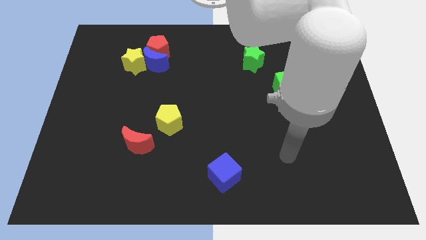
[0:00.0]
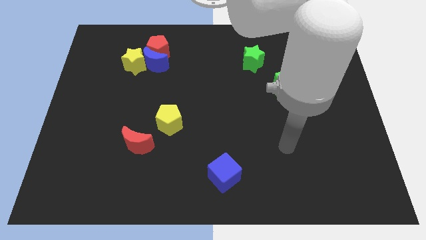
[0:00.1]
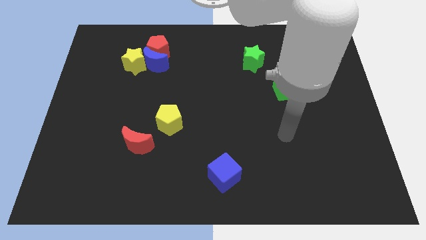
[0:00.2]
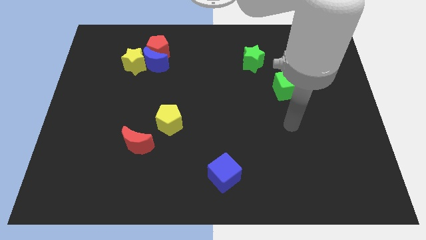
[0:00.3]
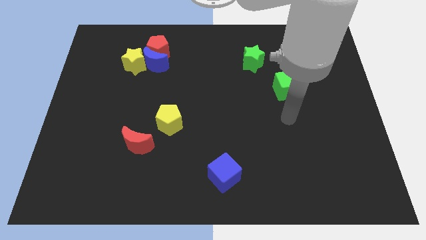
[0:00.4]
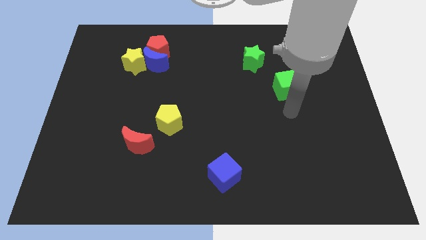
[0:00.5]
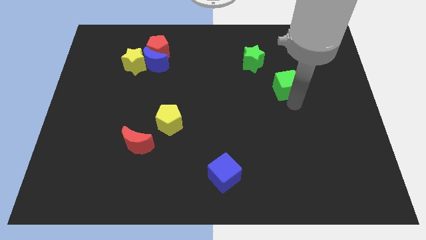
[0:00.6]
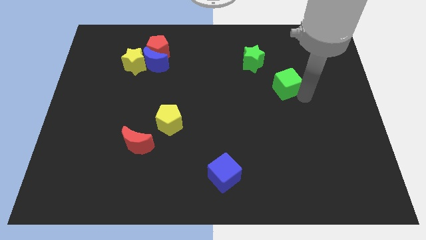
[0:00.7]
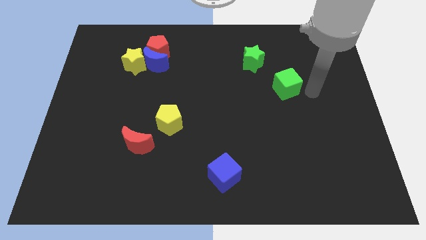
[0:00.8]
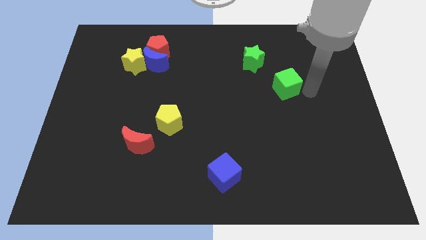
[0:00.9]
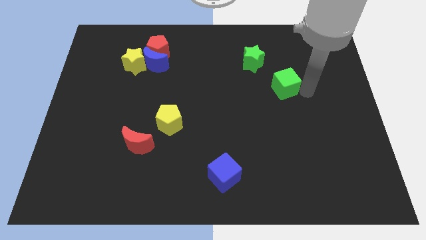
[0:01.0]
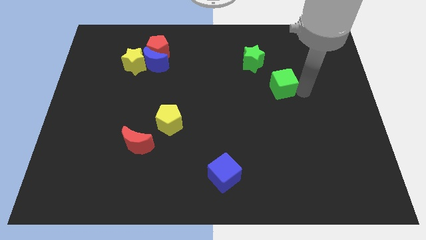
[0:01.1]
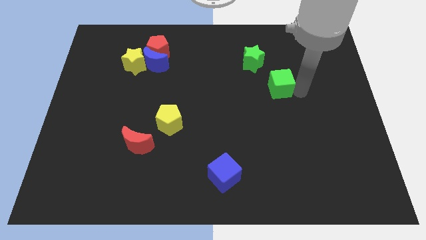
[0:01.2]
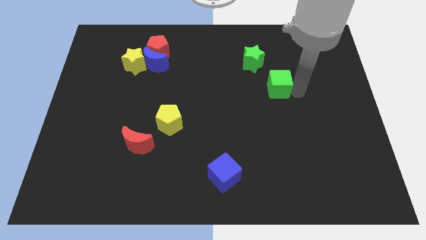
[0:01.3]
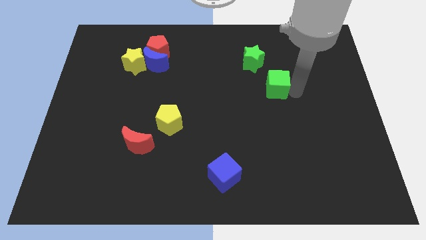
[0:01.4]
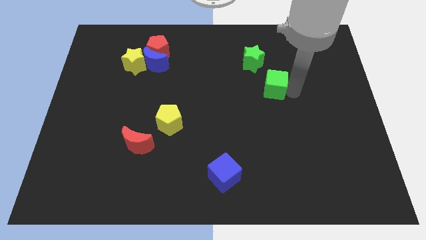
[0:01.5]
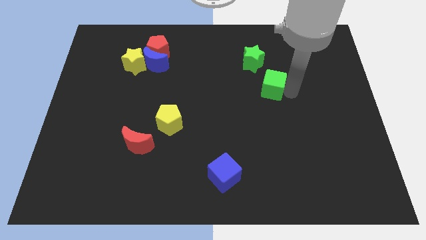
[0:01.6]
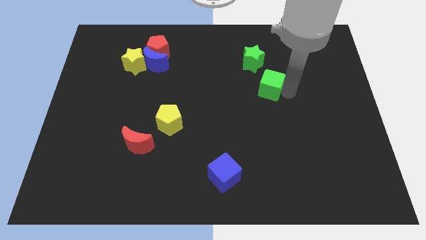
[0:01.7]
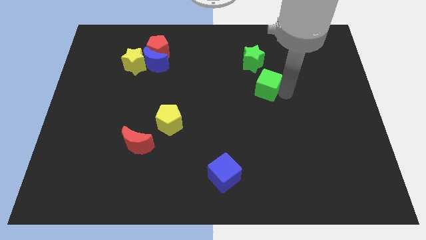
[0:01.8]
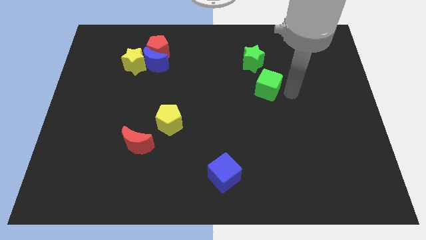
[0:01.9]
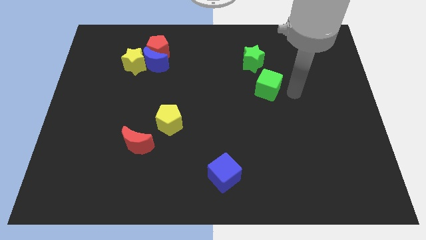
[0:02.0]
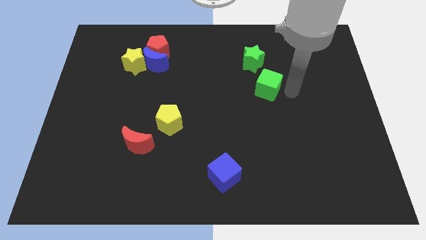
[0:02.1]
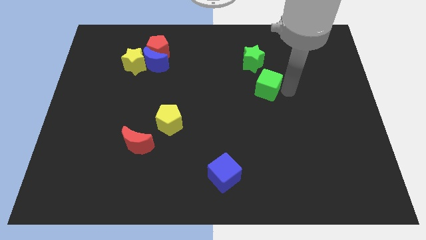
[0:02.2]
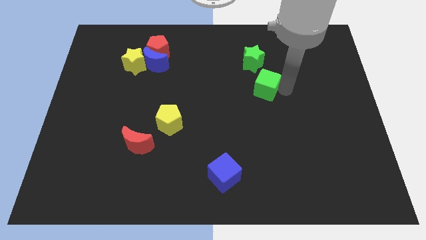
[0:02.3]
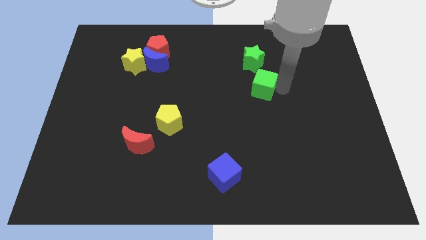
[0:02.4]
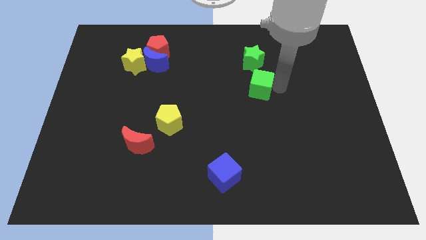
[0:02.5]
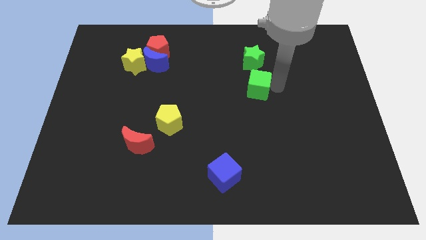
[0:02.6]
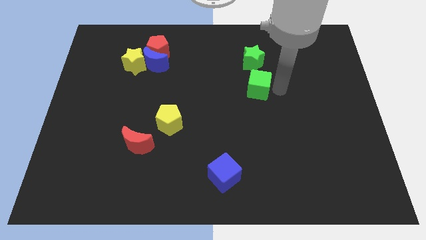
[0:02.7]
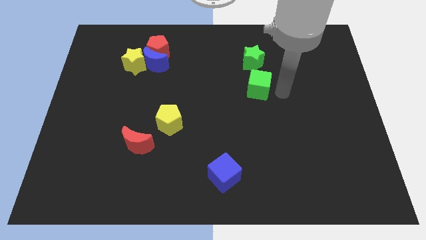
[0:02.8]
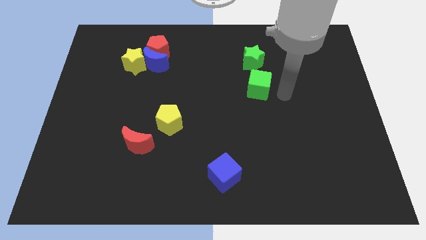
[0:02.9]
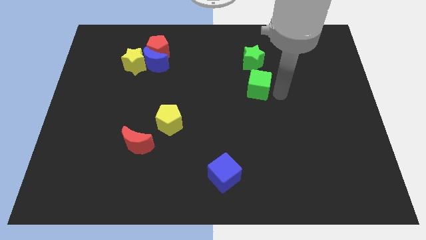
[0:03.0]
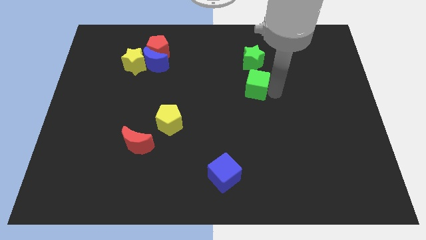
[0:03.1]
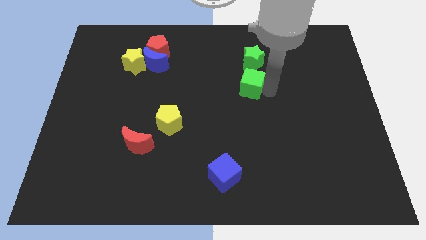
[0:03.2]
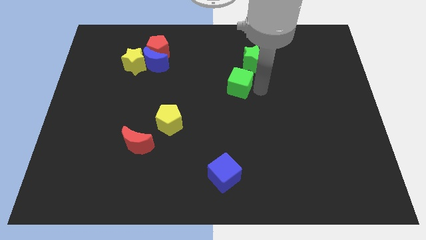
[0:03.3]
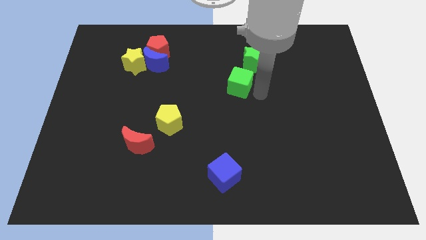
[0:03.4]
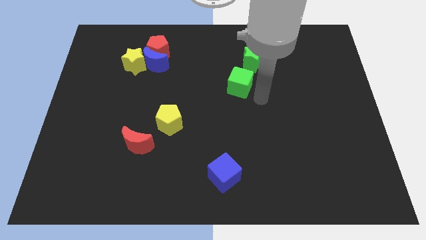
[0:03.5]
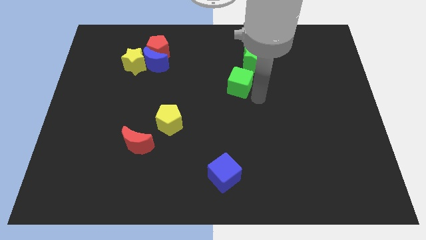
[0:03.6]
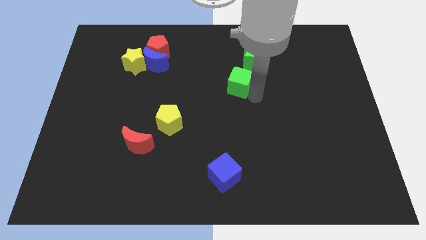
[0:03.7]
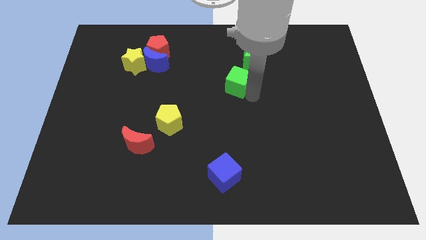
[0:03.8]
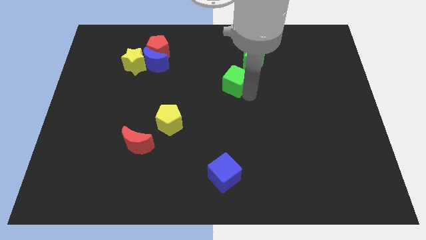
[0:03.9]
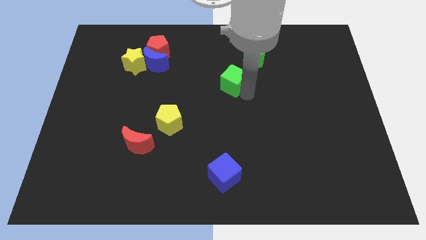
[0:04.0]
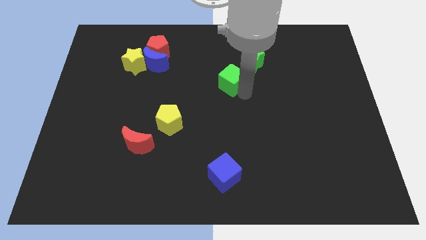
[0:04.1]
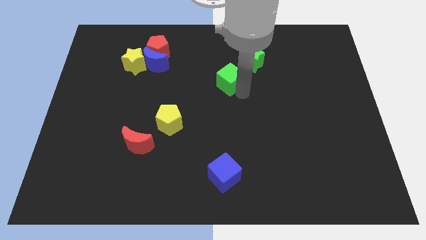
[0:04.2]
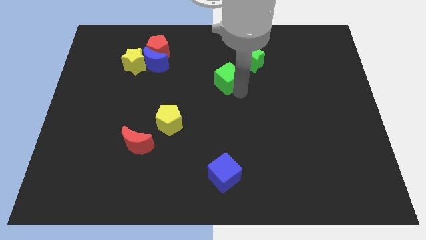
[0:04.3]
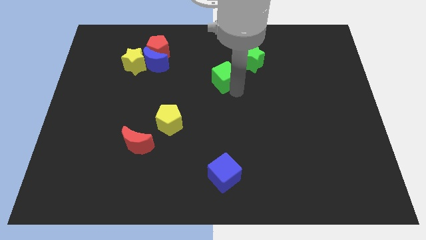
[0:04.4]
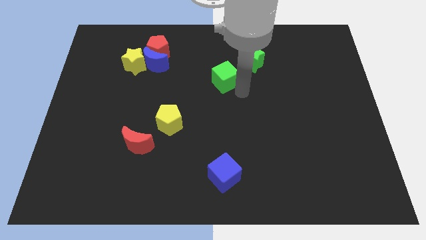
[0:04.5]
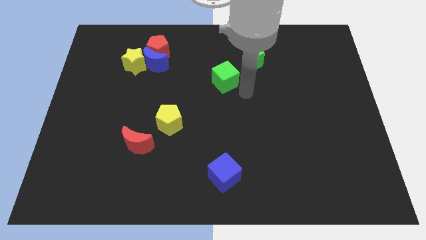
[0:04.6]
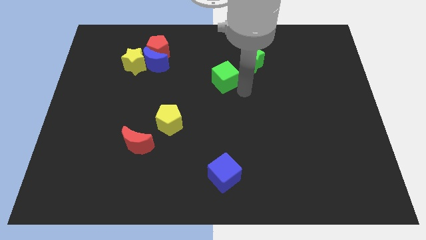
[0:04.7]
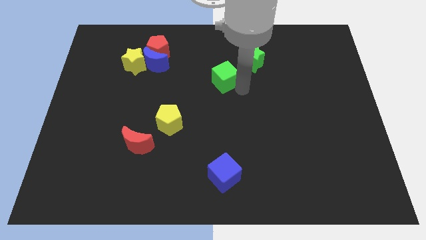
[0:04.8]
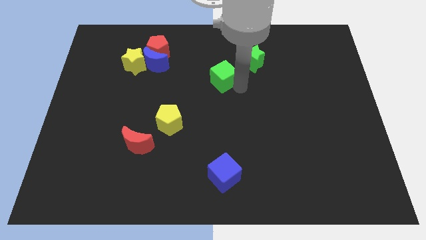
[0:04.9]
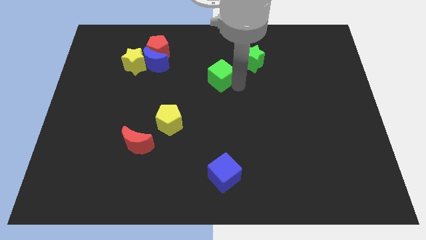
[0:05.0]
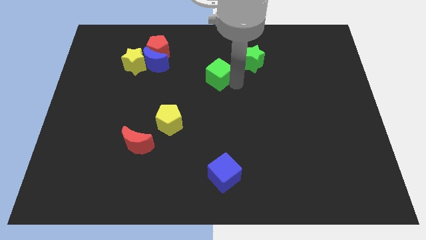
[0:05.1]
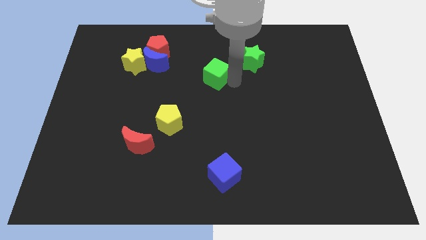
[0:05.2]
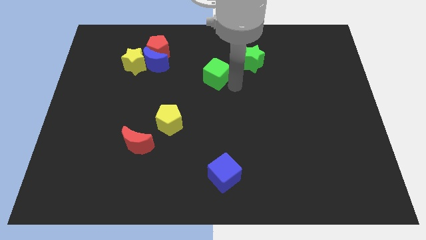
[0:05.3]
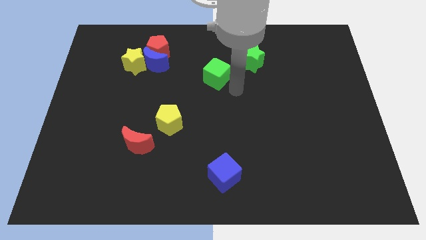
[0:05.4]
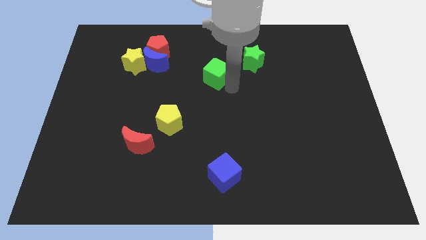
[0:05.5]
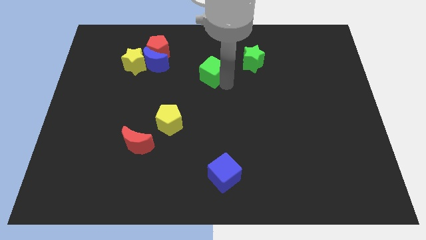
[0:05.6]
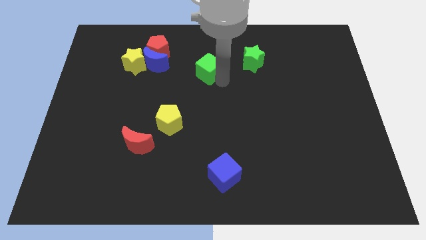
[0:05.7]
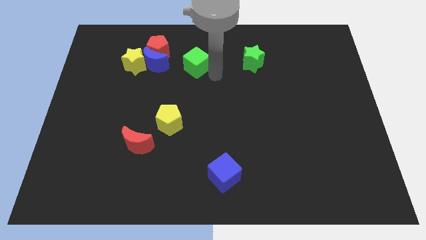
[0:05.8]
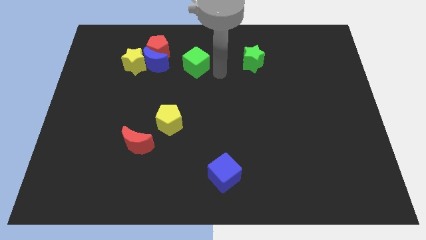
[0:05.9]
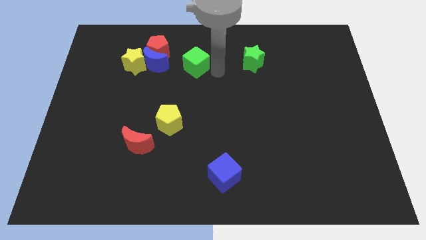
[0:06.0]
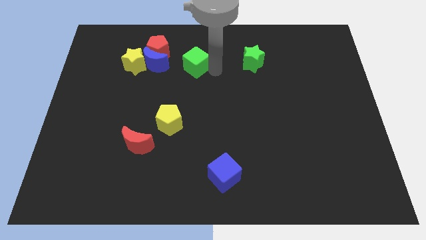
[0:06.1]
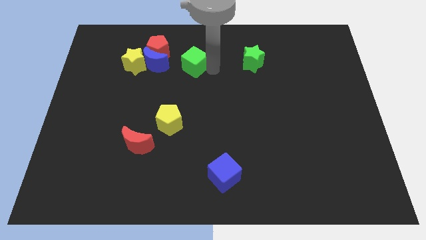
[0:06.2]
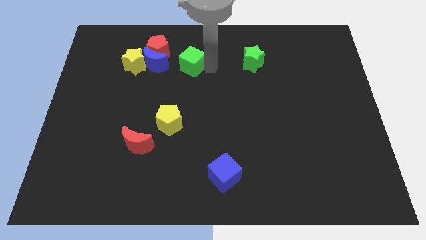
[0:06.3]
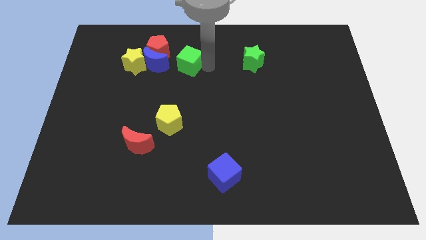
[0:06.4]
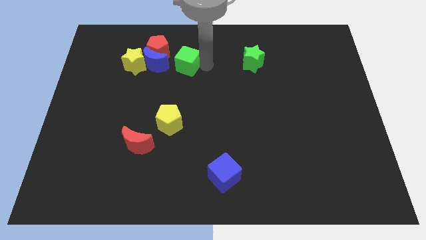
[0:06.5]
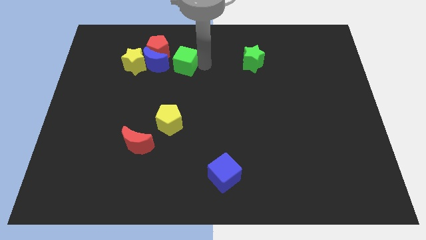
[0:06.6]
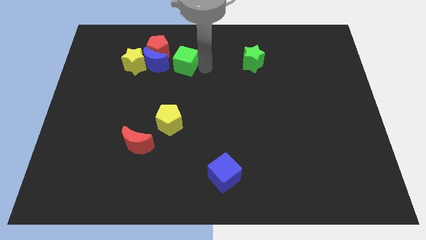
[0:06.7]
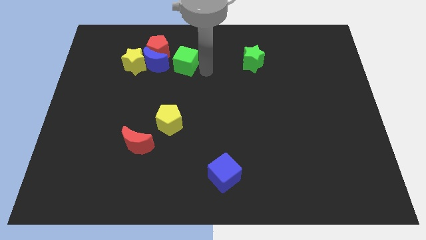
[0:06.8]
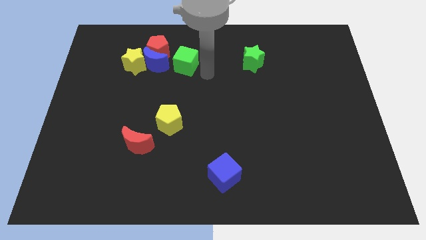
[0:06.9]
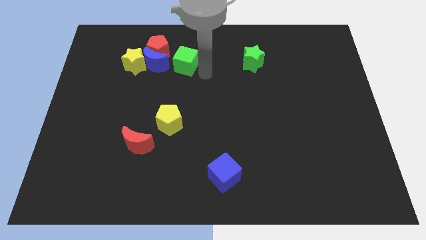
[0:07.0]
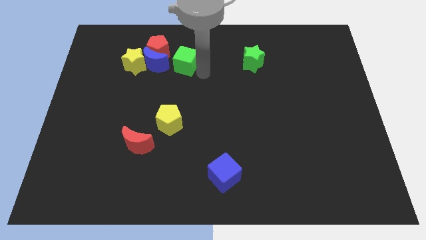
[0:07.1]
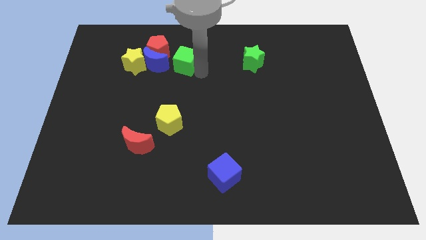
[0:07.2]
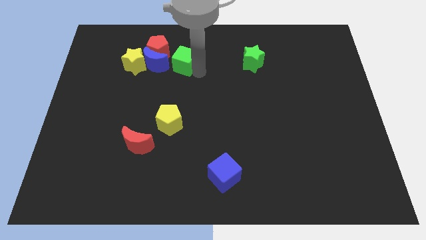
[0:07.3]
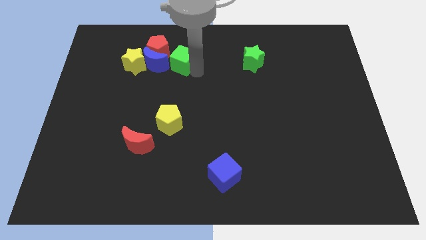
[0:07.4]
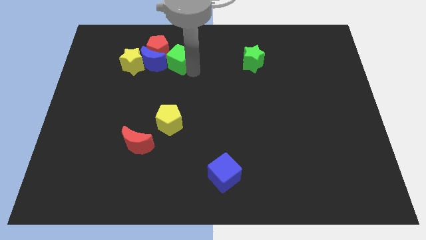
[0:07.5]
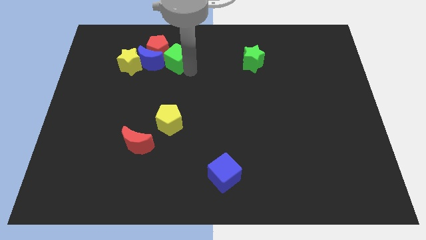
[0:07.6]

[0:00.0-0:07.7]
slide the green cube to the red pentagon
